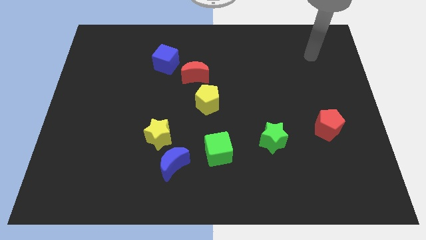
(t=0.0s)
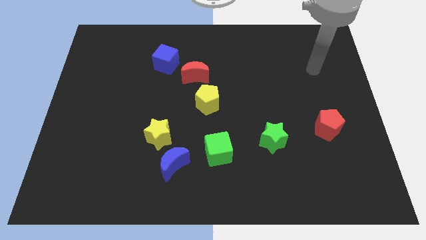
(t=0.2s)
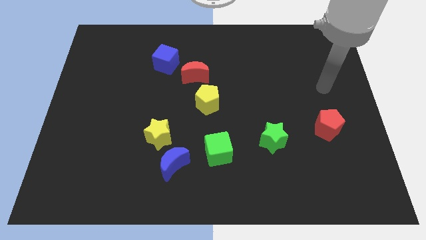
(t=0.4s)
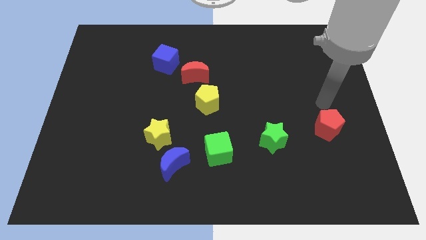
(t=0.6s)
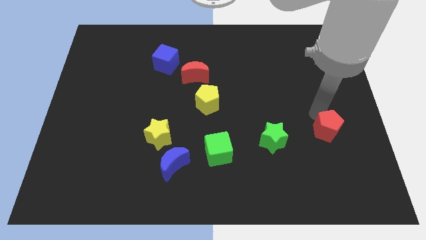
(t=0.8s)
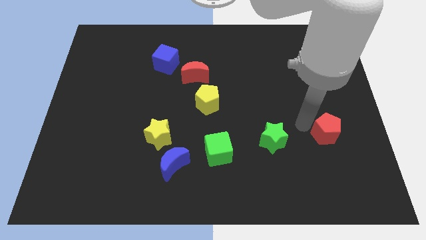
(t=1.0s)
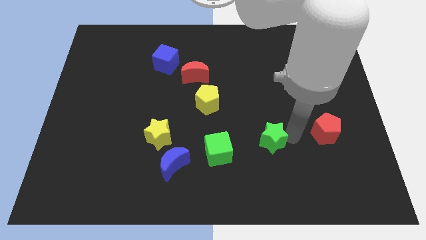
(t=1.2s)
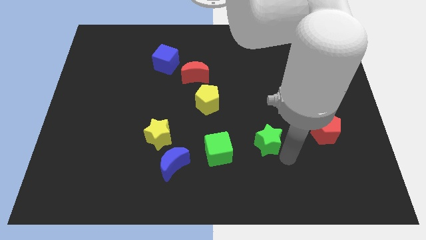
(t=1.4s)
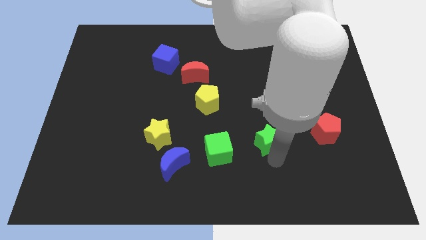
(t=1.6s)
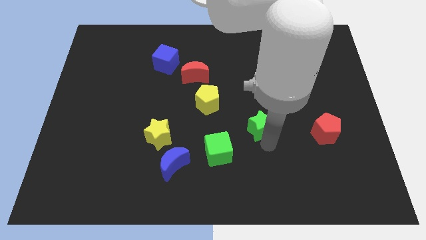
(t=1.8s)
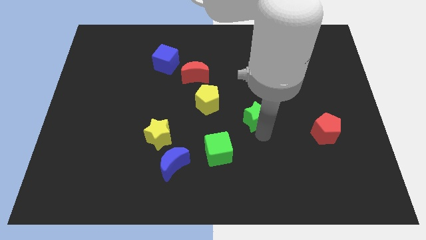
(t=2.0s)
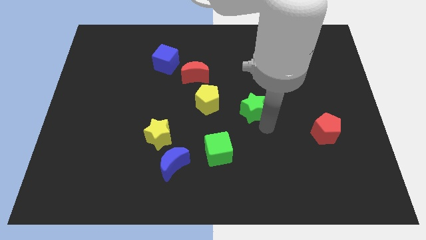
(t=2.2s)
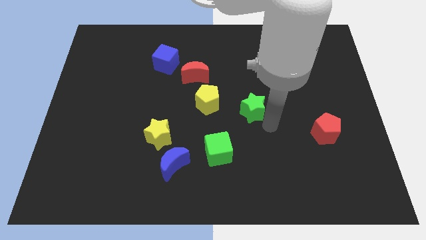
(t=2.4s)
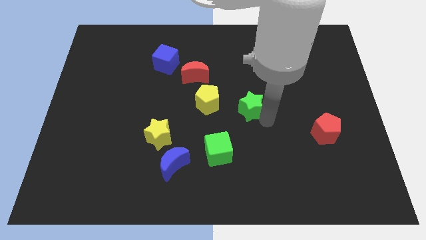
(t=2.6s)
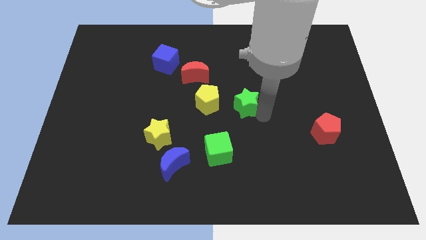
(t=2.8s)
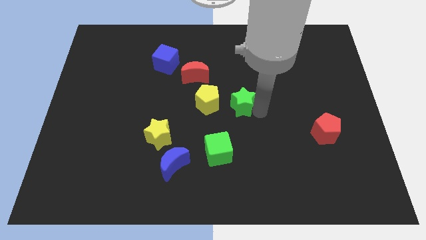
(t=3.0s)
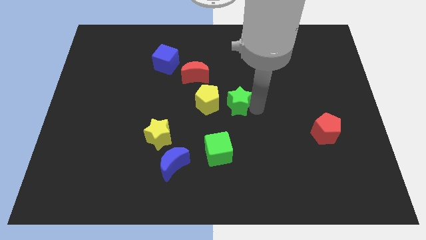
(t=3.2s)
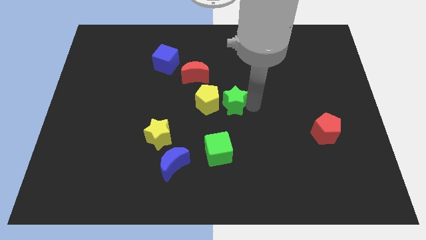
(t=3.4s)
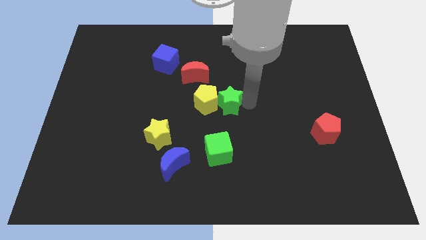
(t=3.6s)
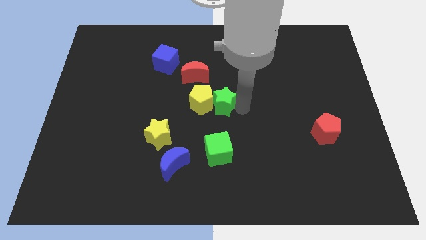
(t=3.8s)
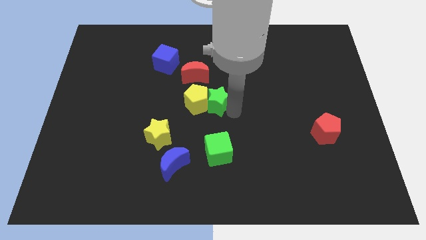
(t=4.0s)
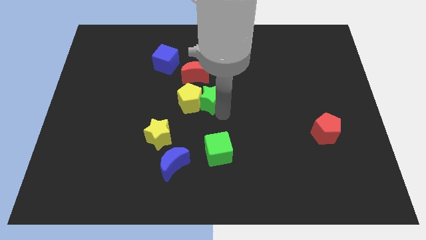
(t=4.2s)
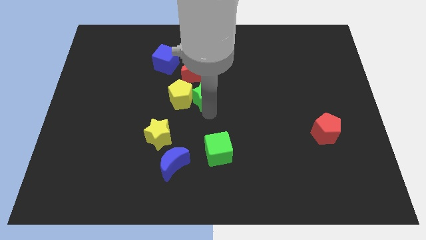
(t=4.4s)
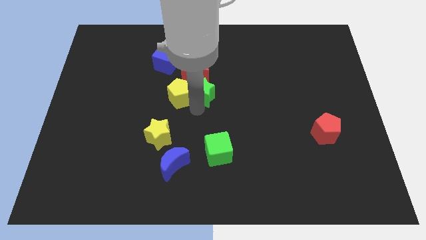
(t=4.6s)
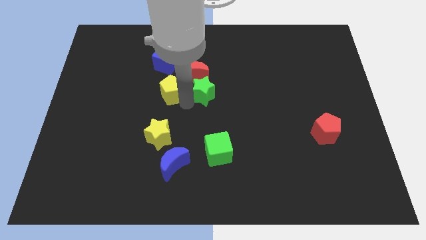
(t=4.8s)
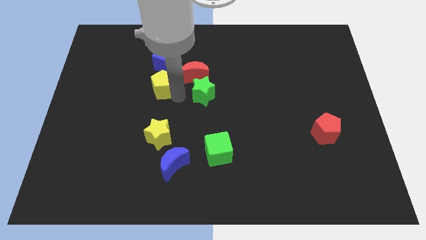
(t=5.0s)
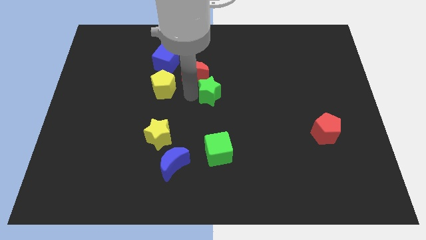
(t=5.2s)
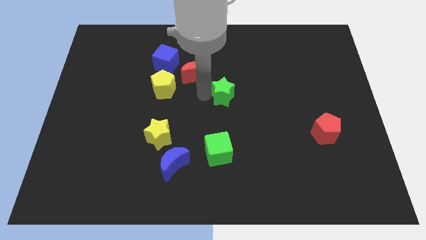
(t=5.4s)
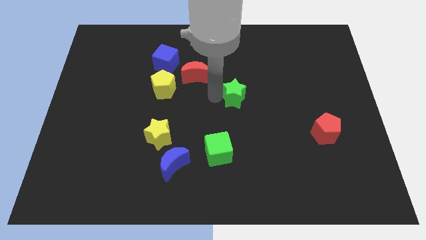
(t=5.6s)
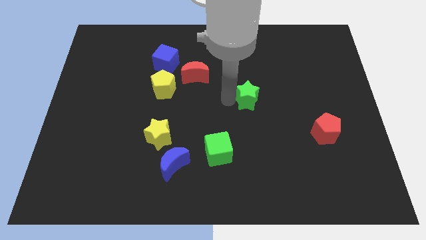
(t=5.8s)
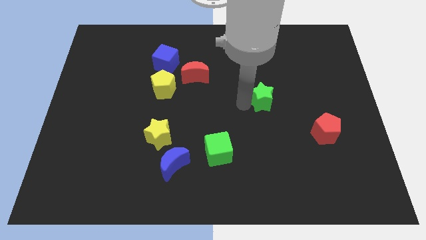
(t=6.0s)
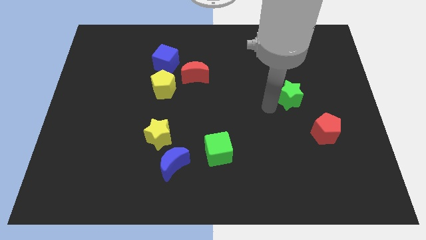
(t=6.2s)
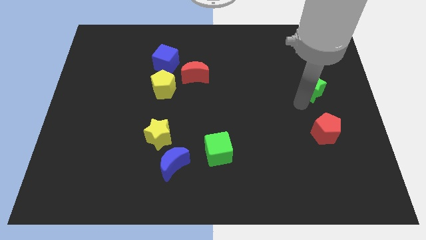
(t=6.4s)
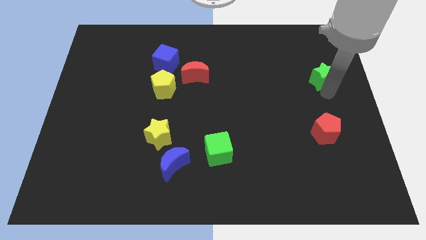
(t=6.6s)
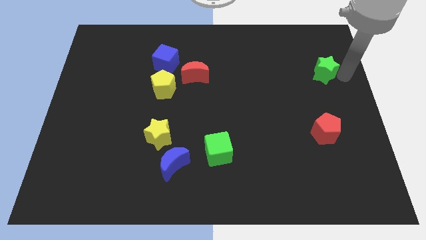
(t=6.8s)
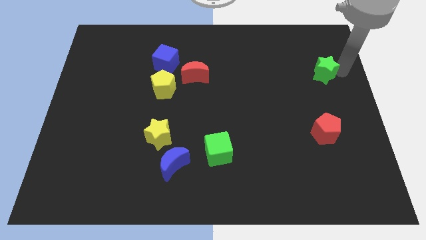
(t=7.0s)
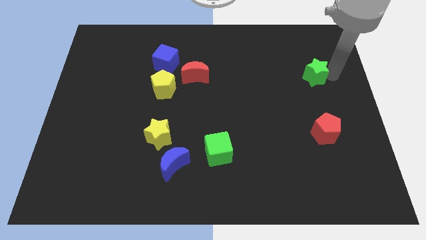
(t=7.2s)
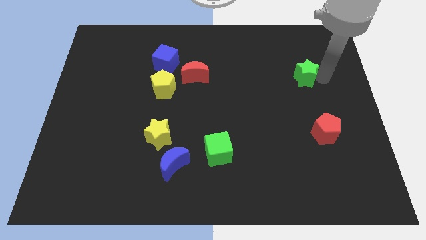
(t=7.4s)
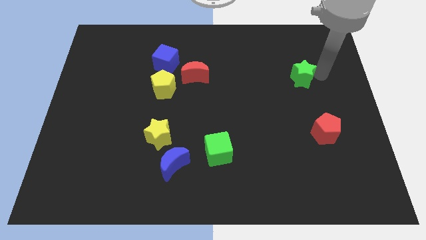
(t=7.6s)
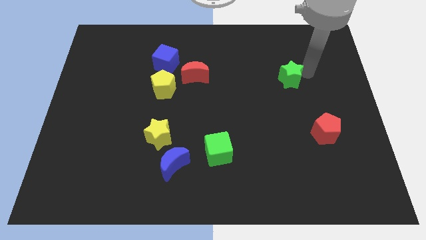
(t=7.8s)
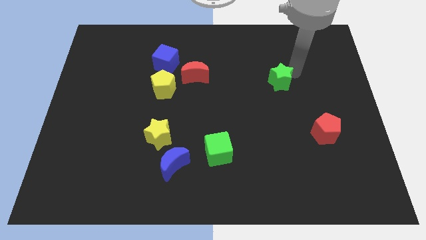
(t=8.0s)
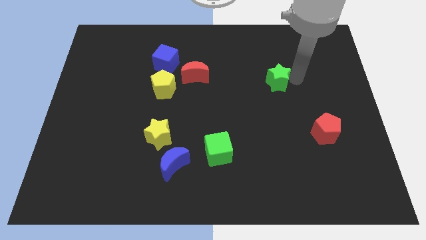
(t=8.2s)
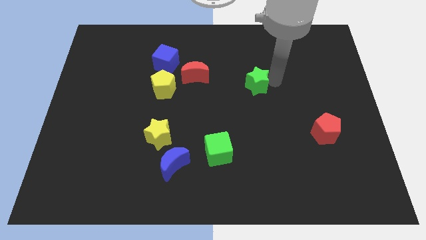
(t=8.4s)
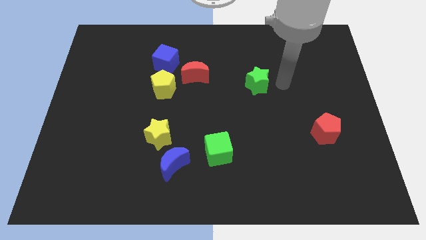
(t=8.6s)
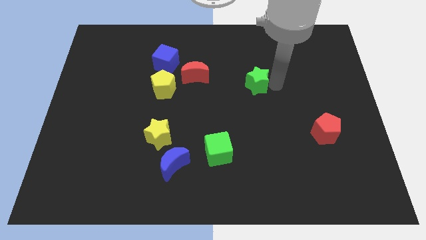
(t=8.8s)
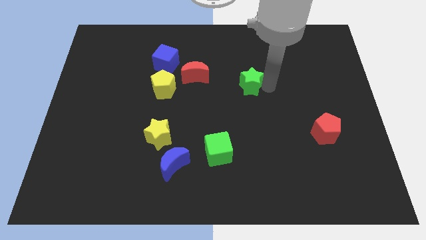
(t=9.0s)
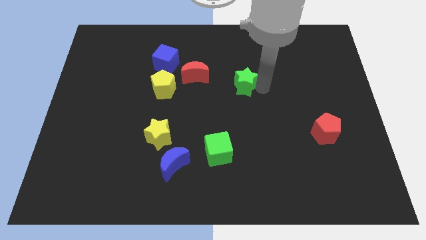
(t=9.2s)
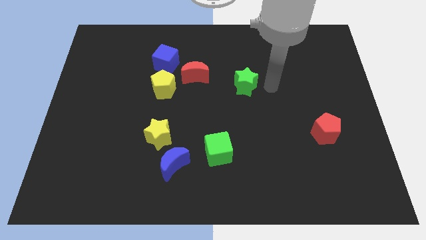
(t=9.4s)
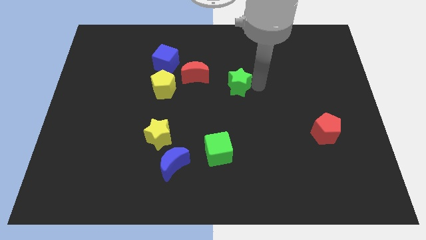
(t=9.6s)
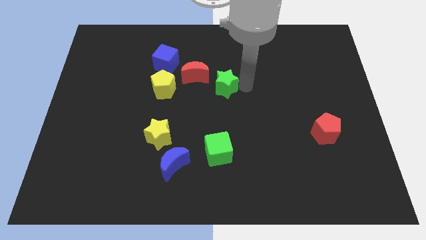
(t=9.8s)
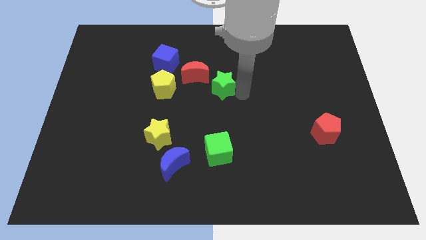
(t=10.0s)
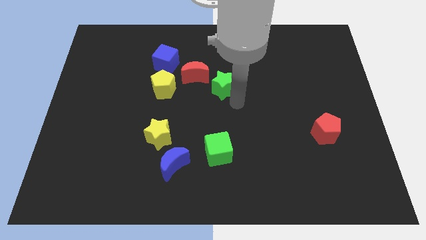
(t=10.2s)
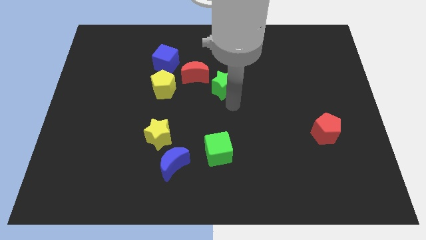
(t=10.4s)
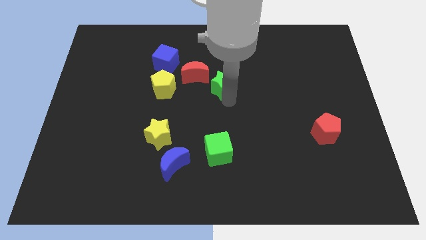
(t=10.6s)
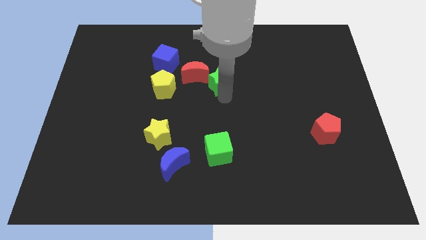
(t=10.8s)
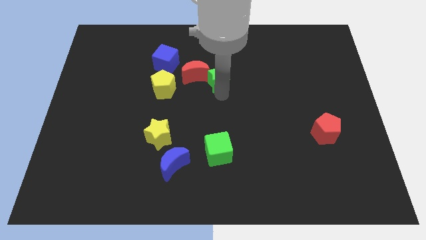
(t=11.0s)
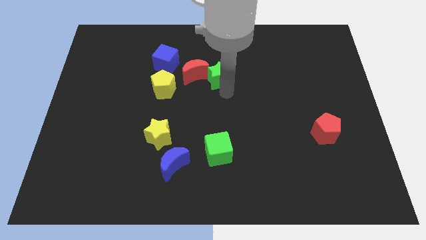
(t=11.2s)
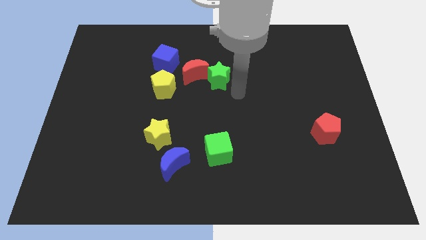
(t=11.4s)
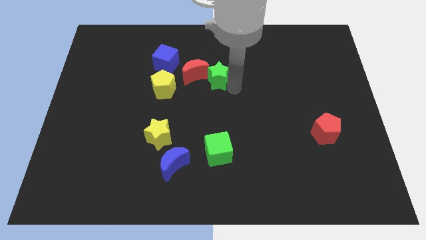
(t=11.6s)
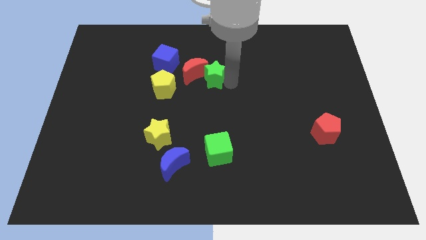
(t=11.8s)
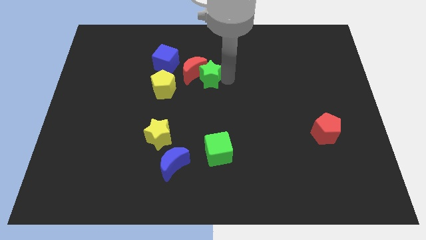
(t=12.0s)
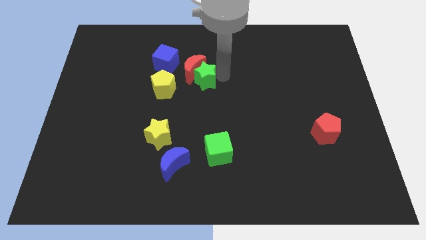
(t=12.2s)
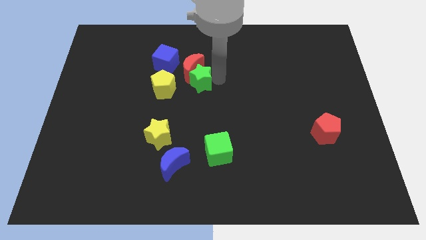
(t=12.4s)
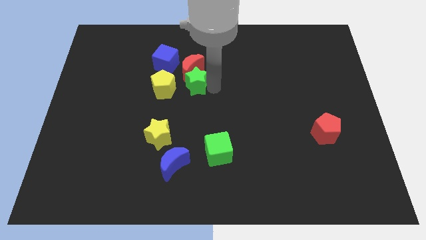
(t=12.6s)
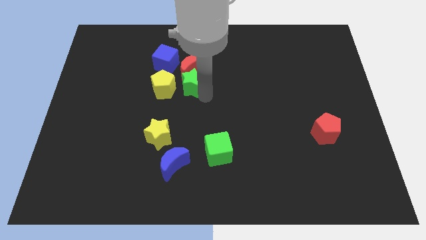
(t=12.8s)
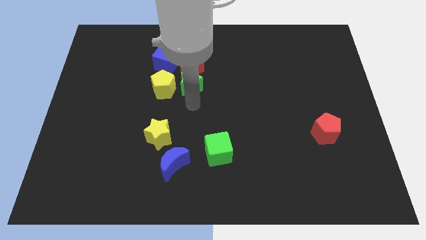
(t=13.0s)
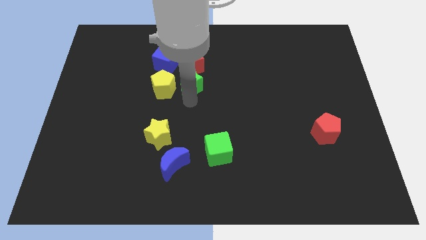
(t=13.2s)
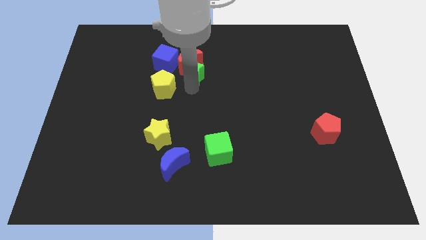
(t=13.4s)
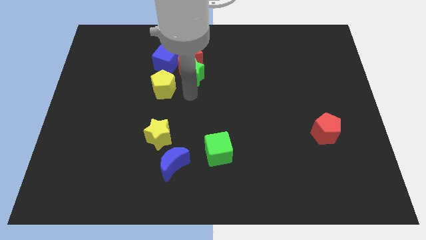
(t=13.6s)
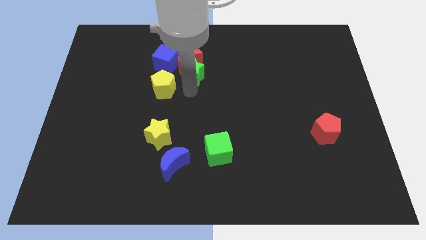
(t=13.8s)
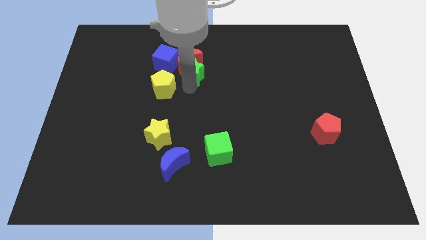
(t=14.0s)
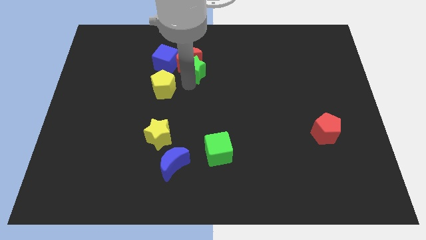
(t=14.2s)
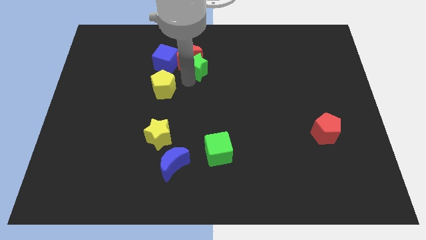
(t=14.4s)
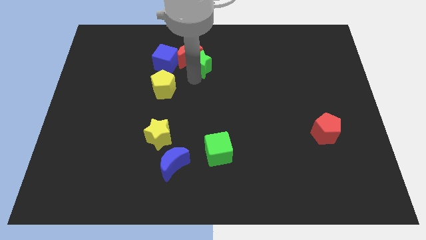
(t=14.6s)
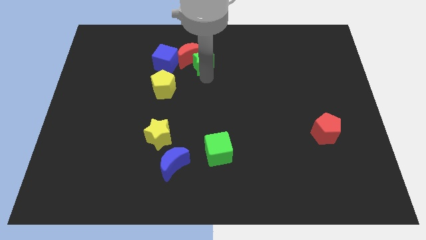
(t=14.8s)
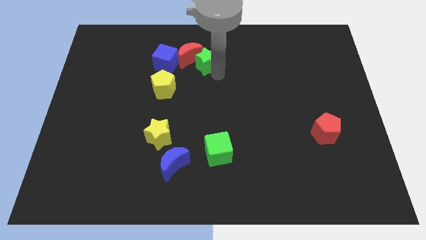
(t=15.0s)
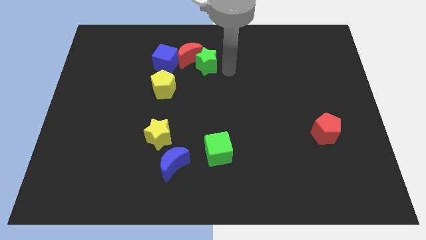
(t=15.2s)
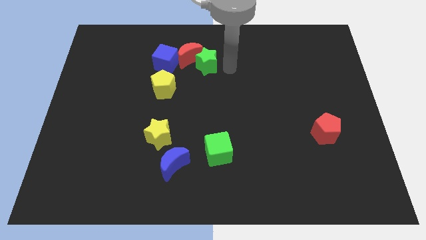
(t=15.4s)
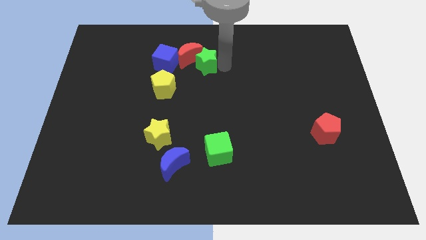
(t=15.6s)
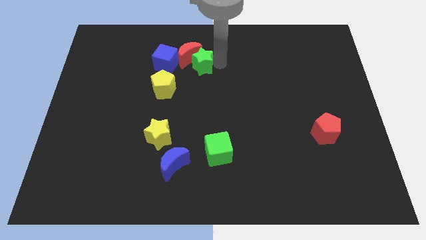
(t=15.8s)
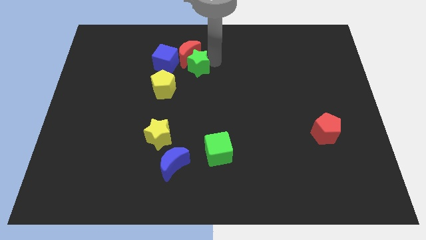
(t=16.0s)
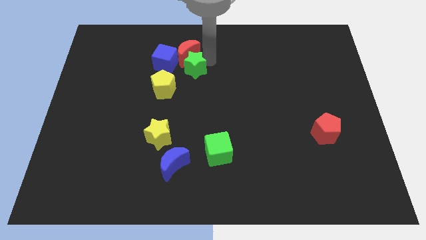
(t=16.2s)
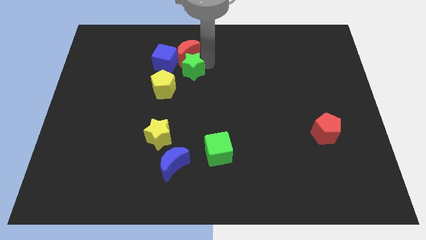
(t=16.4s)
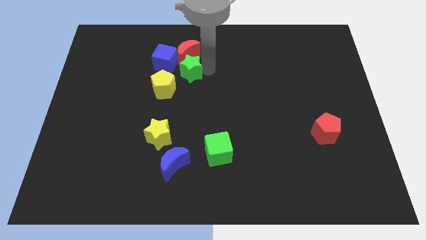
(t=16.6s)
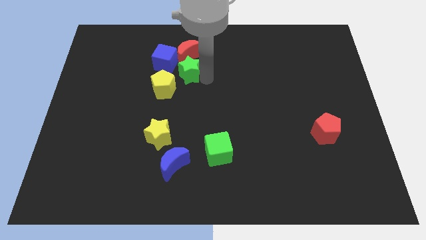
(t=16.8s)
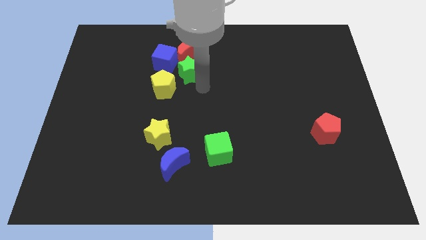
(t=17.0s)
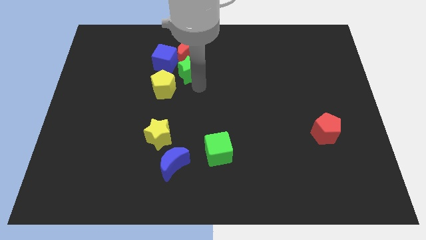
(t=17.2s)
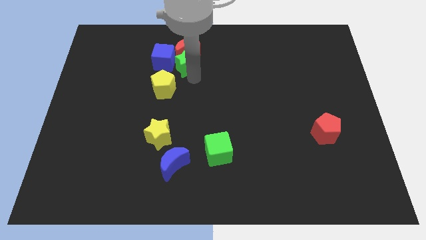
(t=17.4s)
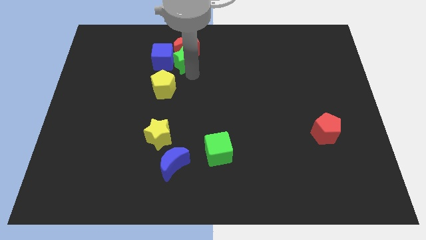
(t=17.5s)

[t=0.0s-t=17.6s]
move the green star close to the blue cube
